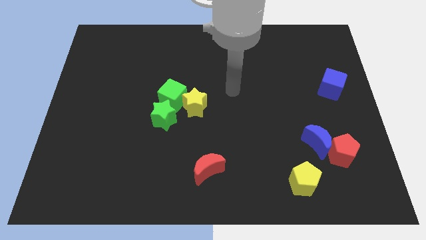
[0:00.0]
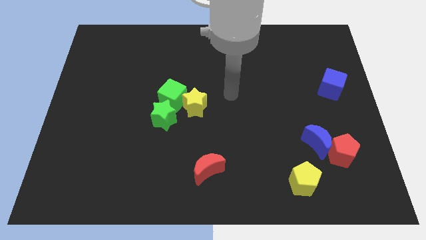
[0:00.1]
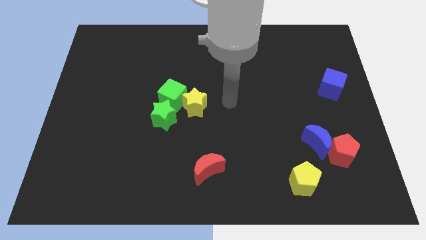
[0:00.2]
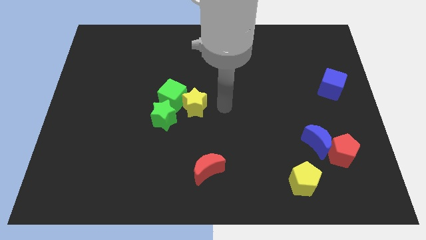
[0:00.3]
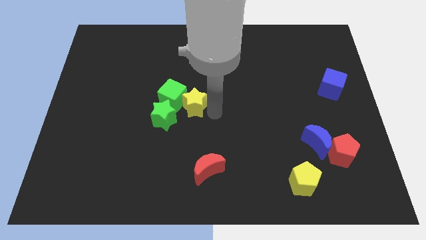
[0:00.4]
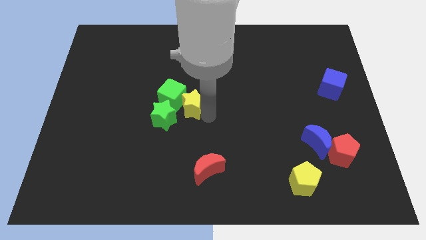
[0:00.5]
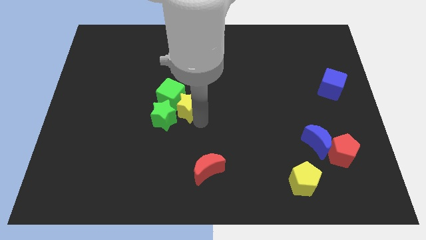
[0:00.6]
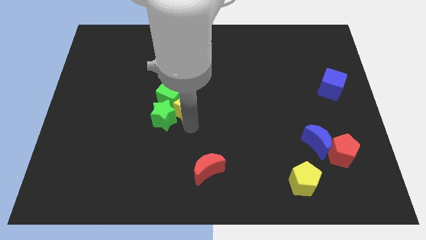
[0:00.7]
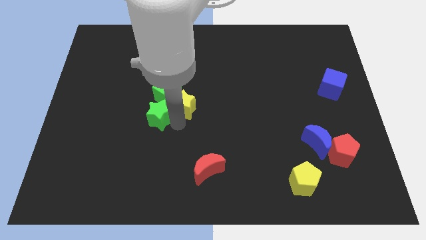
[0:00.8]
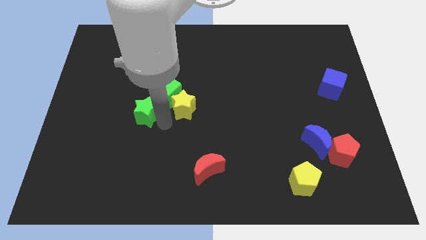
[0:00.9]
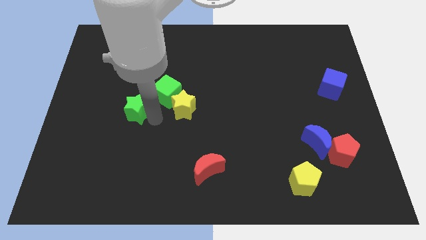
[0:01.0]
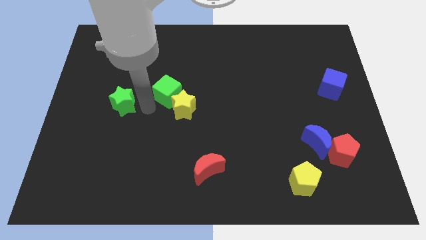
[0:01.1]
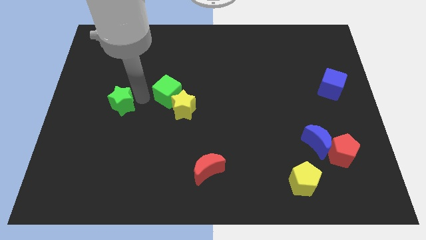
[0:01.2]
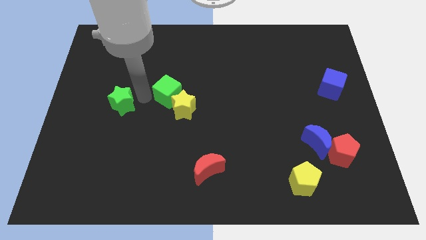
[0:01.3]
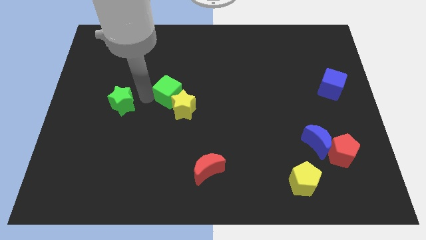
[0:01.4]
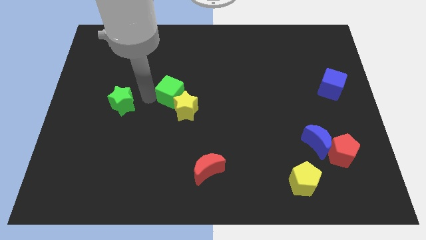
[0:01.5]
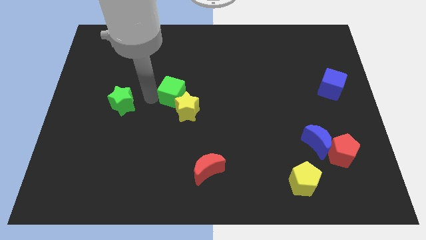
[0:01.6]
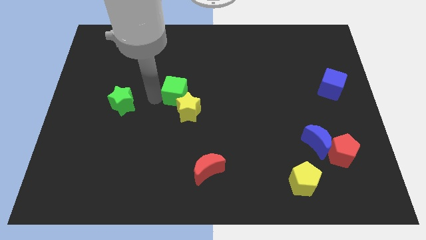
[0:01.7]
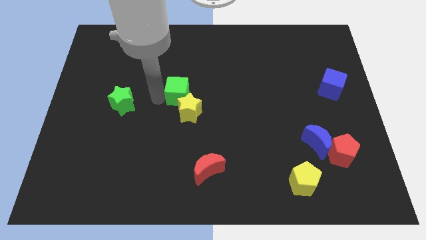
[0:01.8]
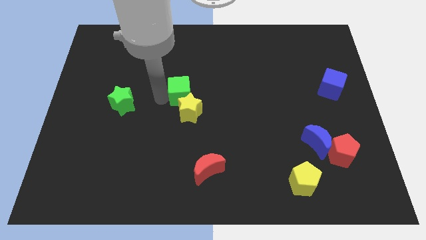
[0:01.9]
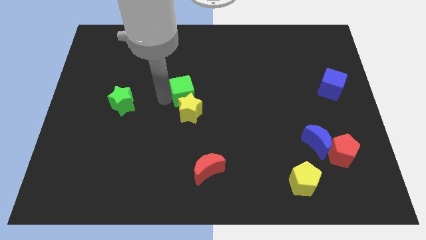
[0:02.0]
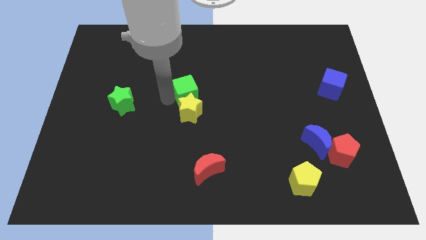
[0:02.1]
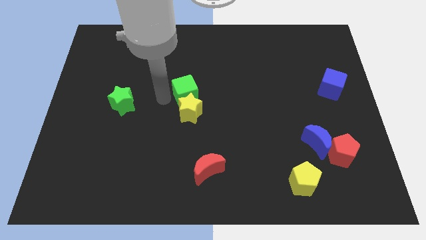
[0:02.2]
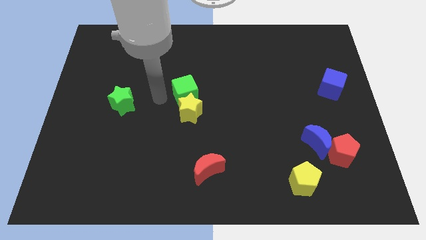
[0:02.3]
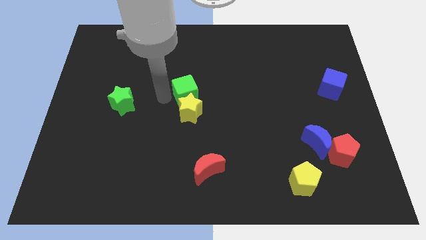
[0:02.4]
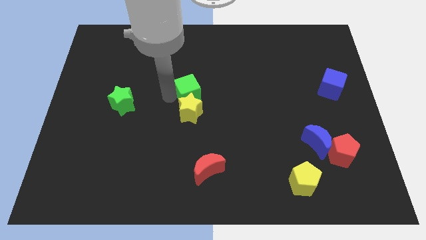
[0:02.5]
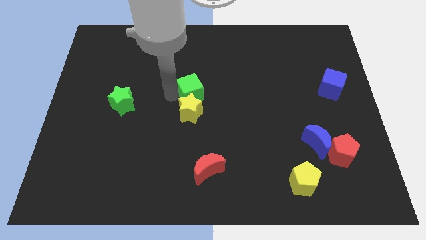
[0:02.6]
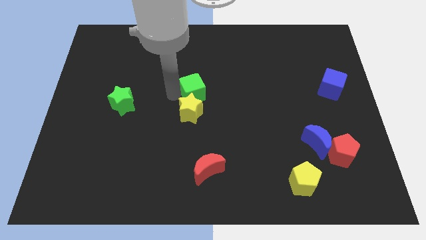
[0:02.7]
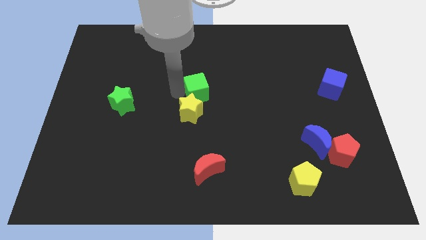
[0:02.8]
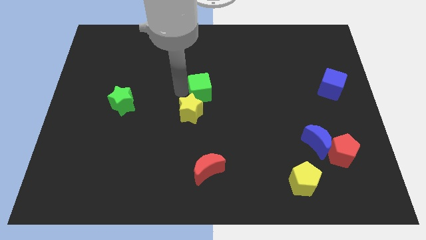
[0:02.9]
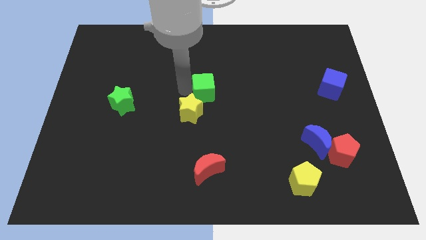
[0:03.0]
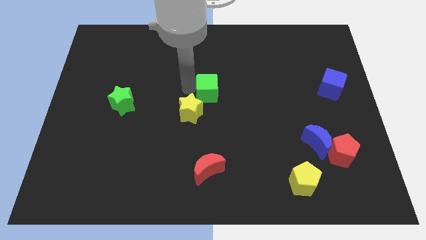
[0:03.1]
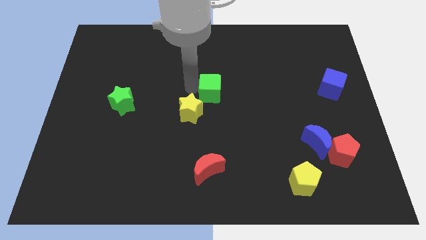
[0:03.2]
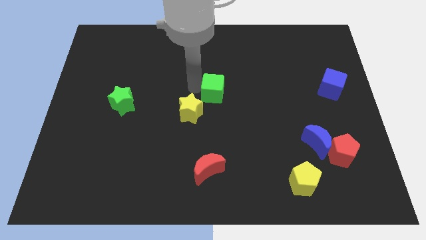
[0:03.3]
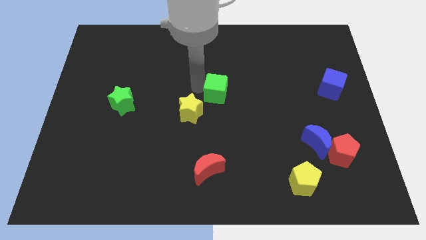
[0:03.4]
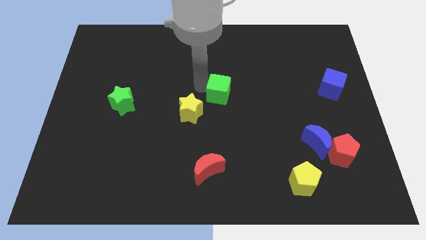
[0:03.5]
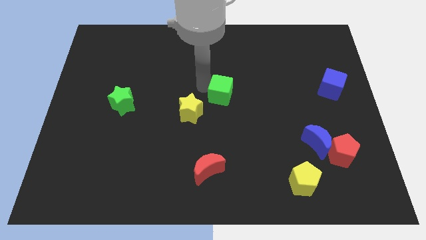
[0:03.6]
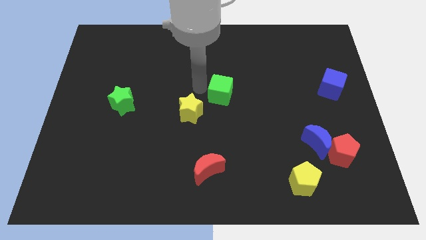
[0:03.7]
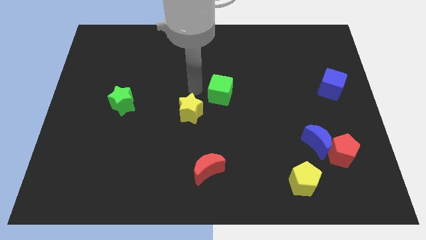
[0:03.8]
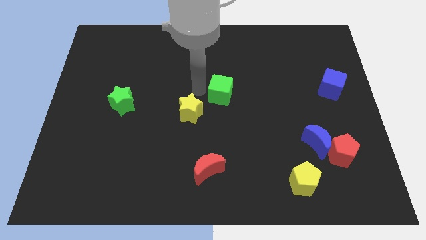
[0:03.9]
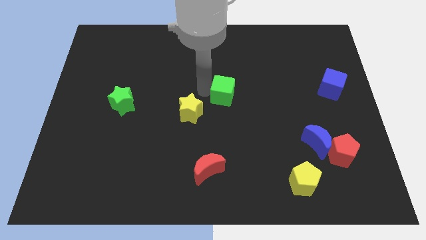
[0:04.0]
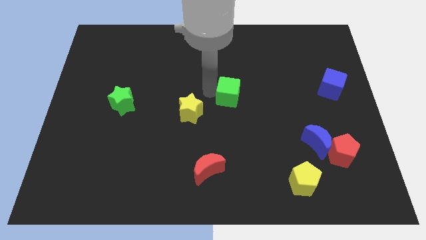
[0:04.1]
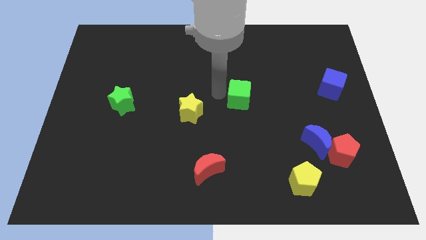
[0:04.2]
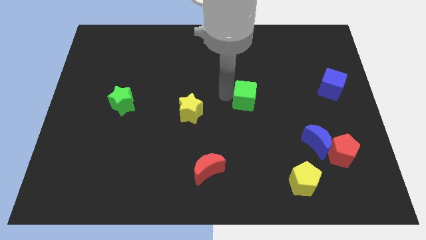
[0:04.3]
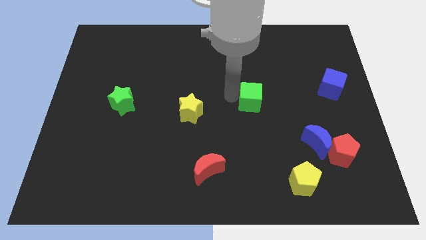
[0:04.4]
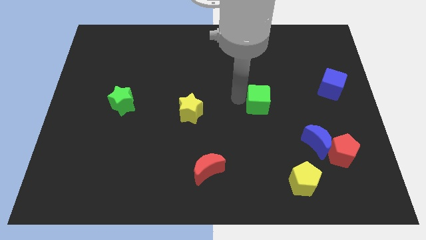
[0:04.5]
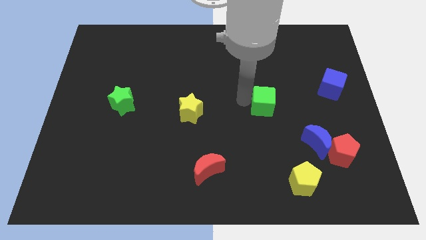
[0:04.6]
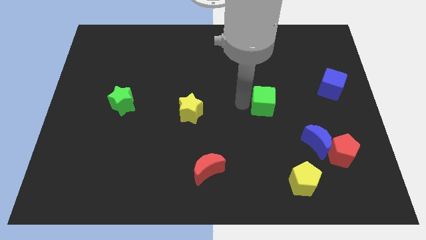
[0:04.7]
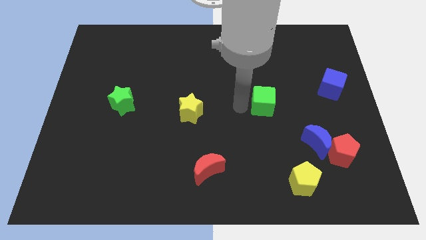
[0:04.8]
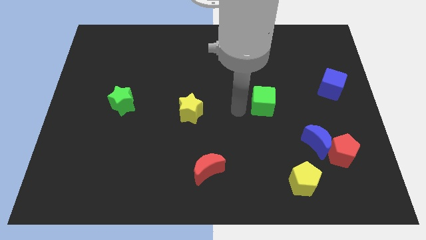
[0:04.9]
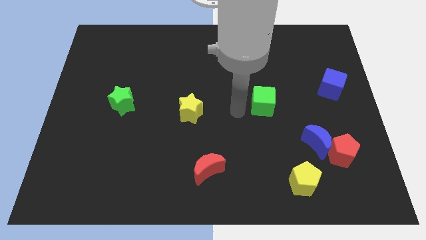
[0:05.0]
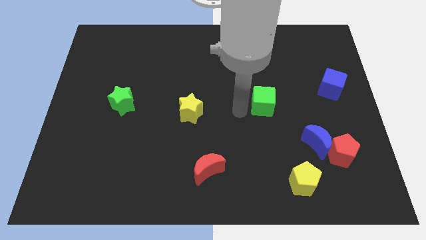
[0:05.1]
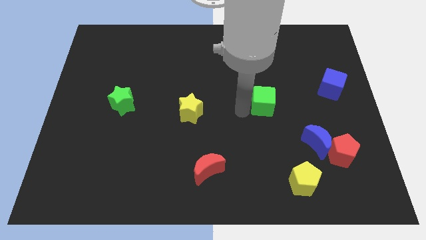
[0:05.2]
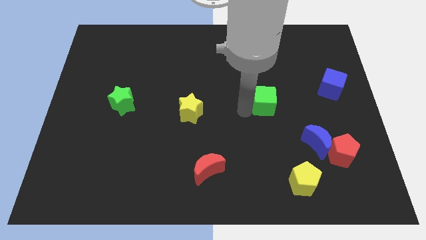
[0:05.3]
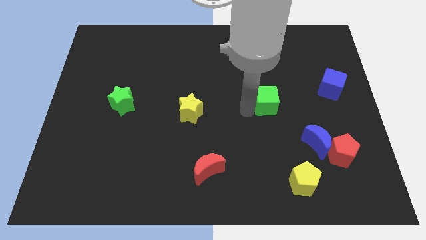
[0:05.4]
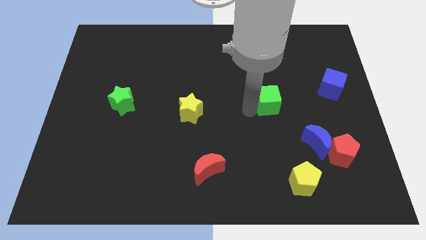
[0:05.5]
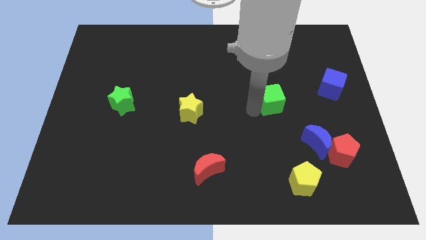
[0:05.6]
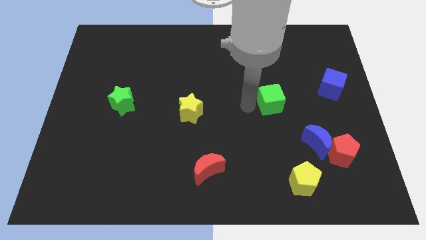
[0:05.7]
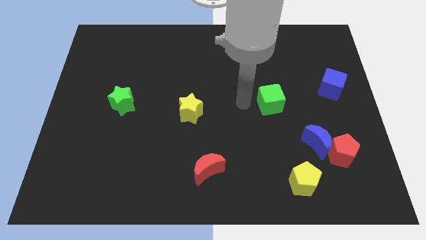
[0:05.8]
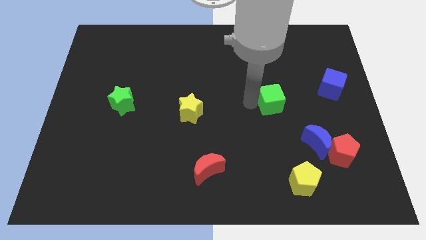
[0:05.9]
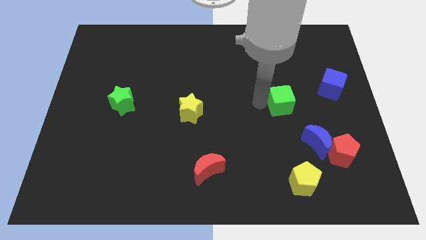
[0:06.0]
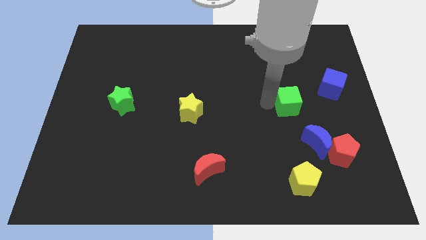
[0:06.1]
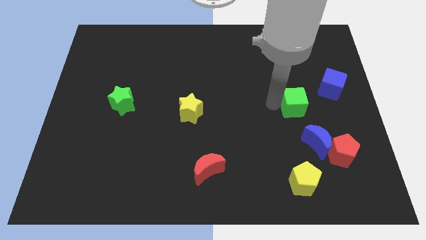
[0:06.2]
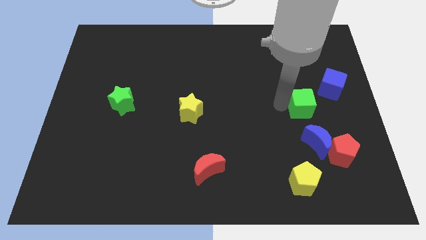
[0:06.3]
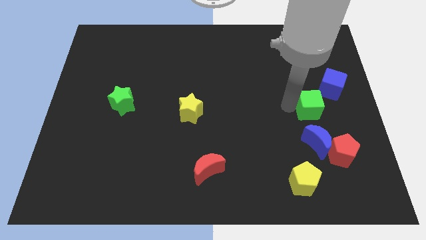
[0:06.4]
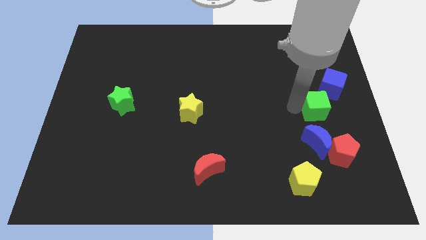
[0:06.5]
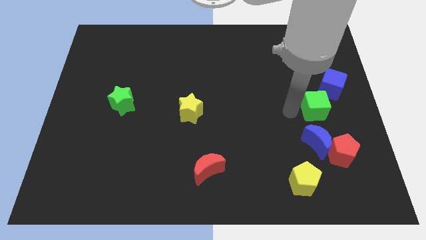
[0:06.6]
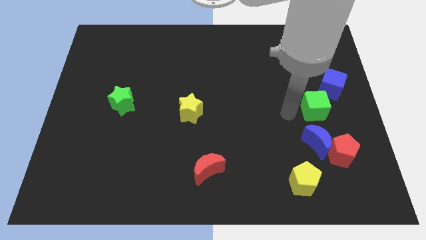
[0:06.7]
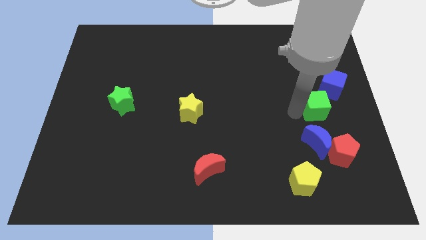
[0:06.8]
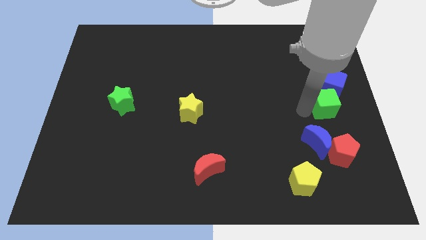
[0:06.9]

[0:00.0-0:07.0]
put the green cube to the right side
